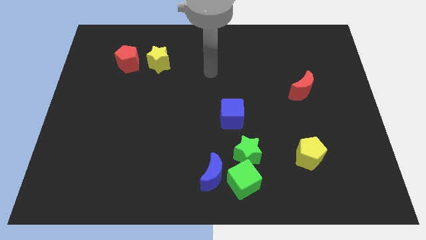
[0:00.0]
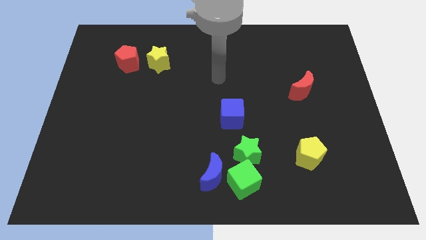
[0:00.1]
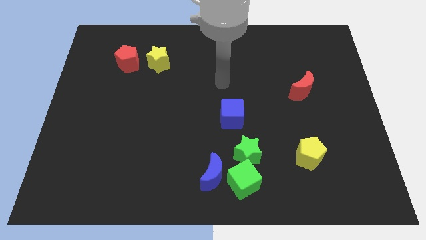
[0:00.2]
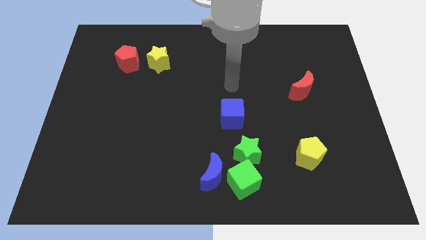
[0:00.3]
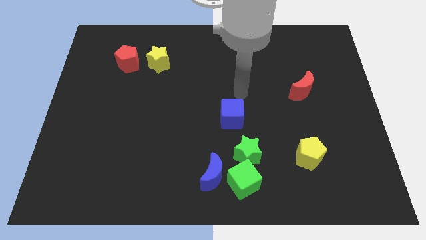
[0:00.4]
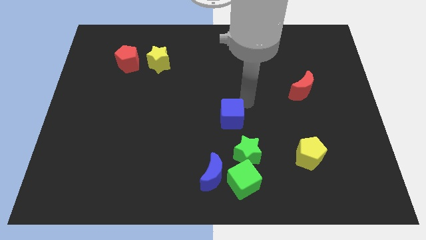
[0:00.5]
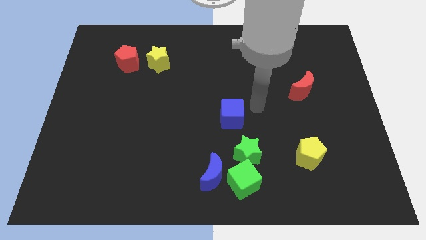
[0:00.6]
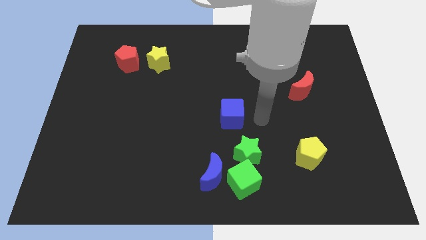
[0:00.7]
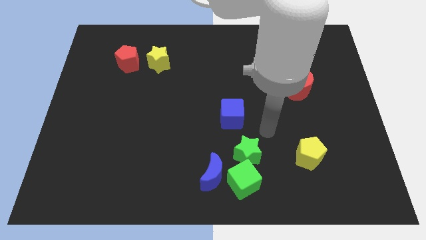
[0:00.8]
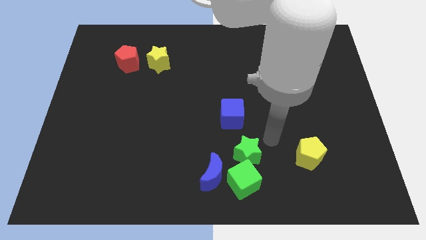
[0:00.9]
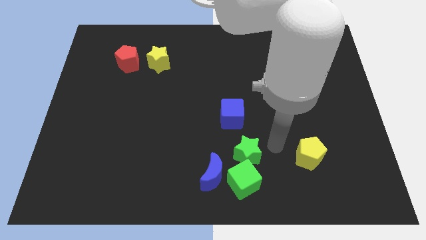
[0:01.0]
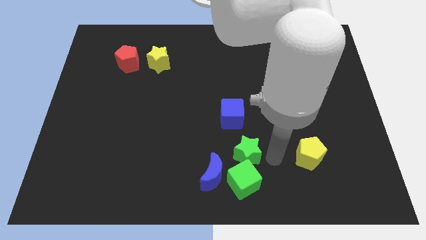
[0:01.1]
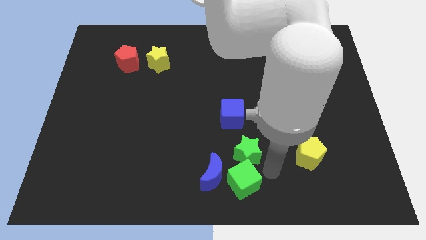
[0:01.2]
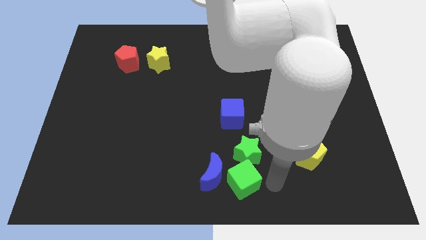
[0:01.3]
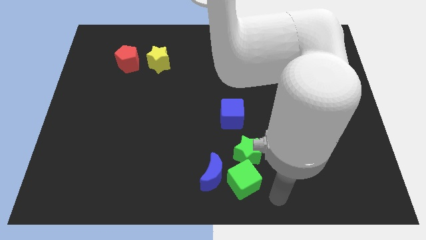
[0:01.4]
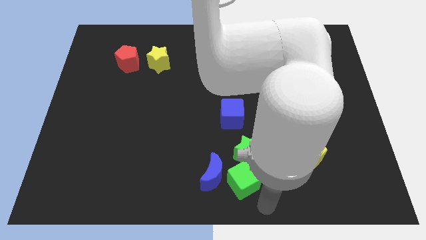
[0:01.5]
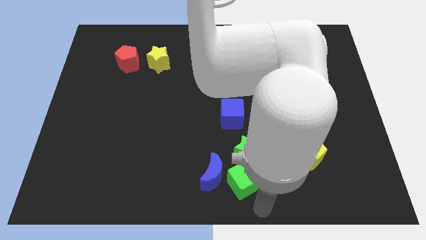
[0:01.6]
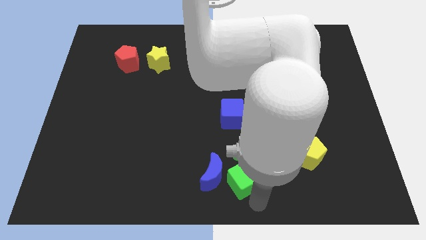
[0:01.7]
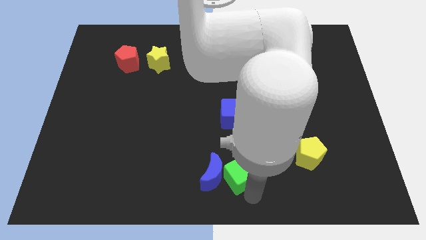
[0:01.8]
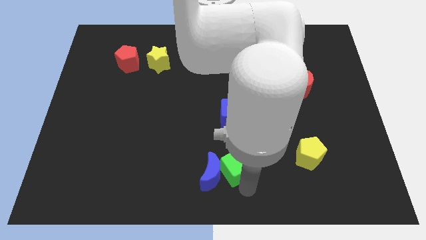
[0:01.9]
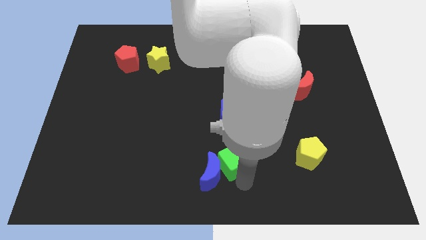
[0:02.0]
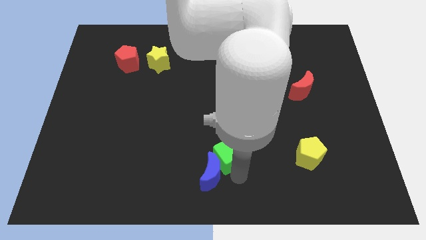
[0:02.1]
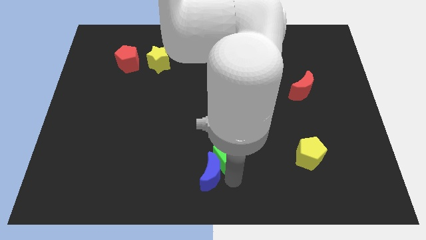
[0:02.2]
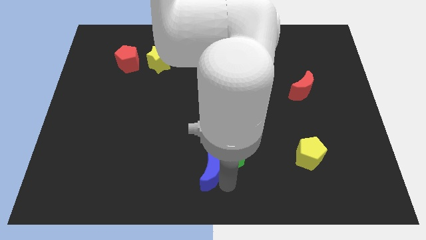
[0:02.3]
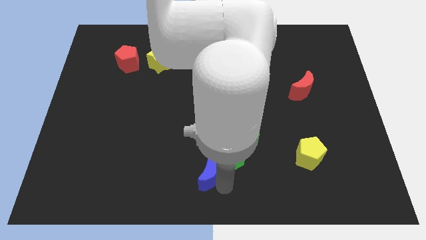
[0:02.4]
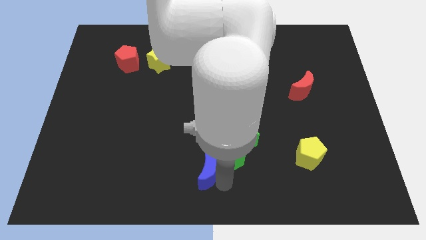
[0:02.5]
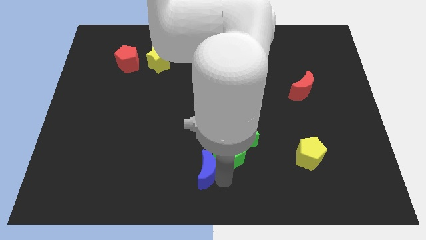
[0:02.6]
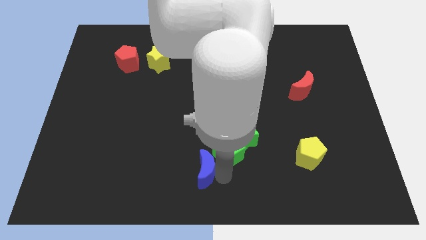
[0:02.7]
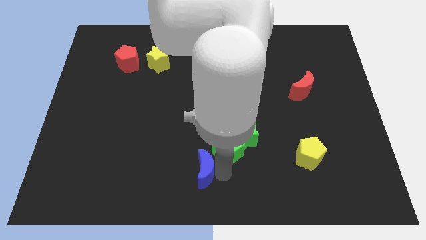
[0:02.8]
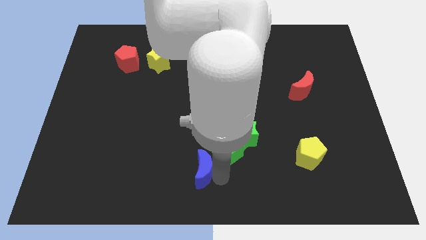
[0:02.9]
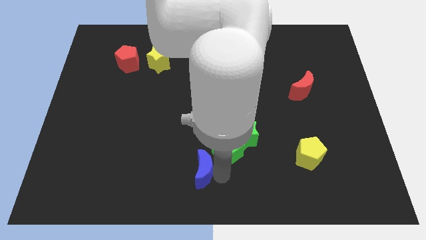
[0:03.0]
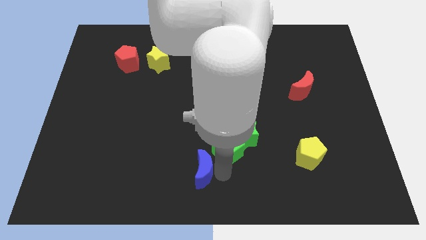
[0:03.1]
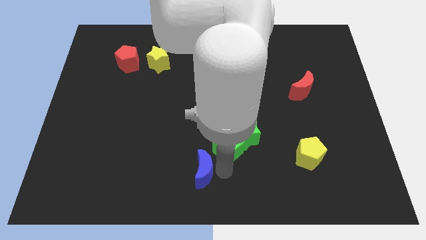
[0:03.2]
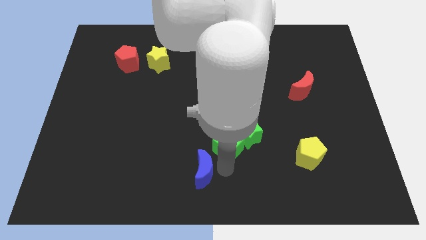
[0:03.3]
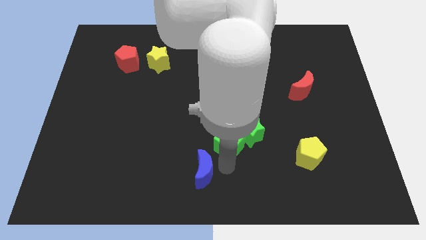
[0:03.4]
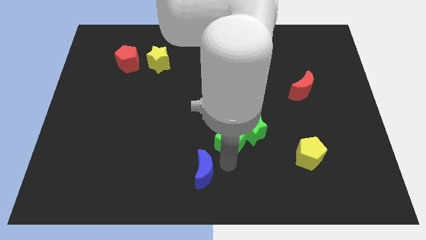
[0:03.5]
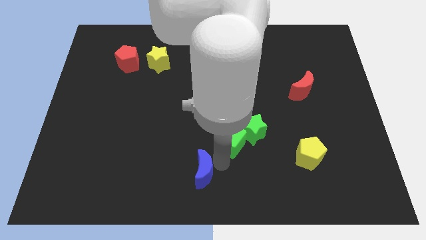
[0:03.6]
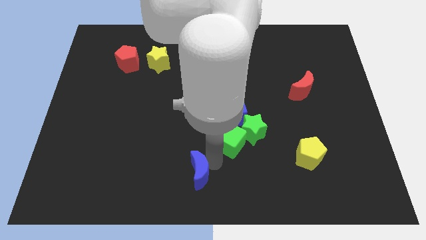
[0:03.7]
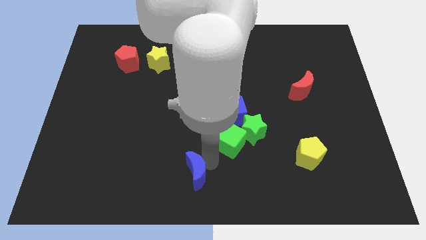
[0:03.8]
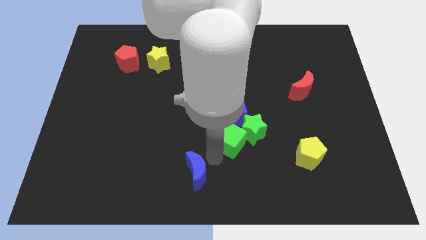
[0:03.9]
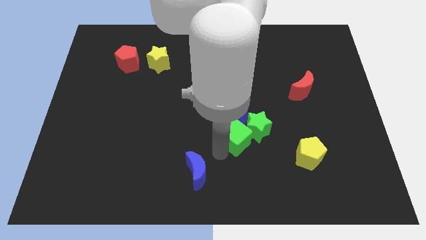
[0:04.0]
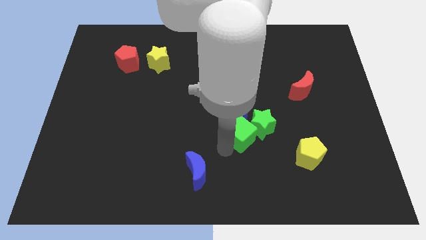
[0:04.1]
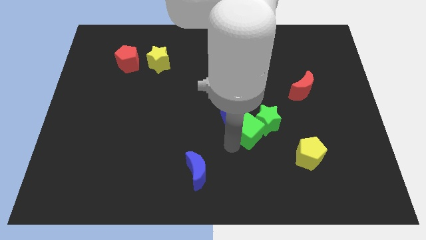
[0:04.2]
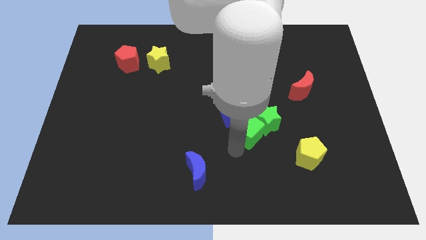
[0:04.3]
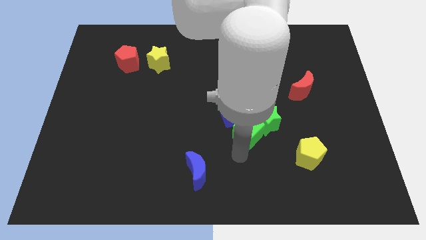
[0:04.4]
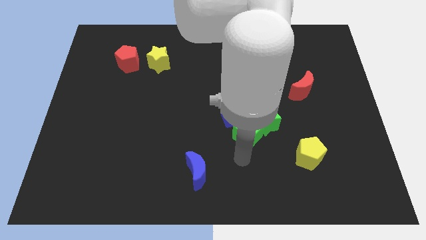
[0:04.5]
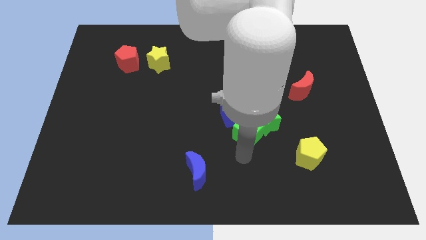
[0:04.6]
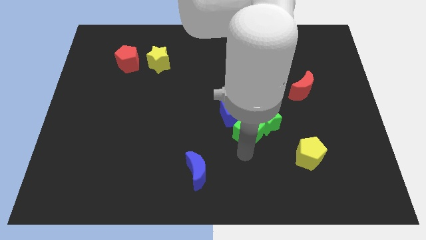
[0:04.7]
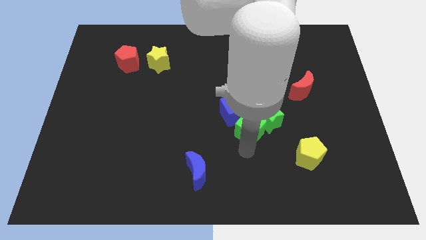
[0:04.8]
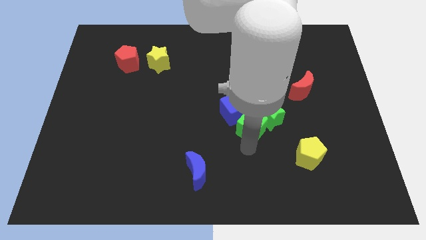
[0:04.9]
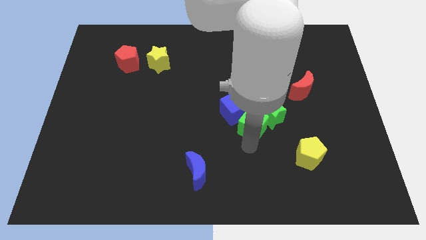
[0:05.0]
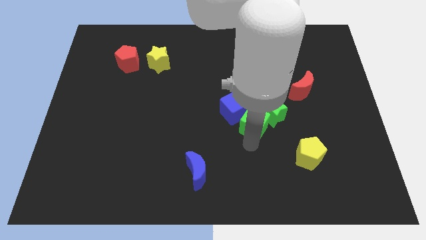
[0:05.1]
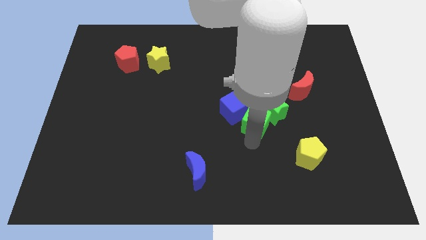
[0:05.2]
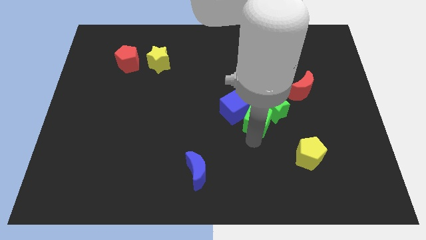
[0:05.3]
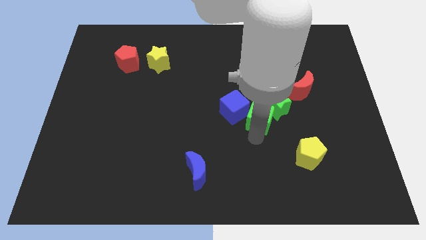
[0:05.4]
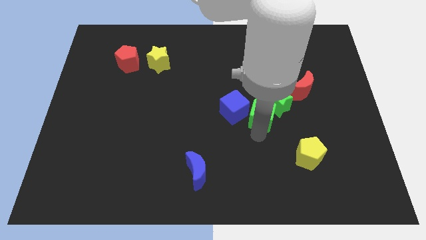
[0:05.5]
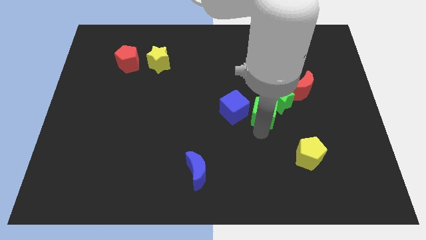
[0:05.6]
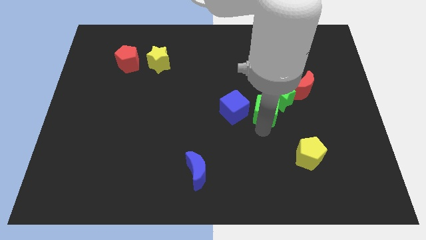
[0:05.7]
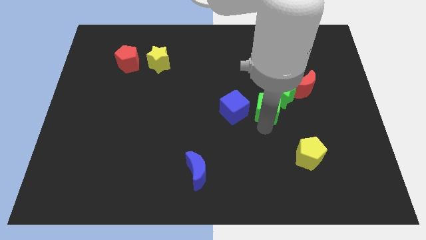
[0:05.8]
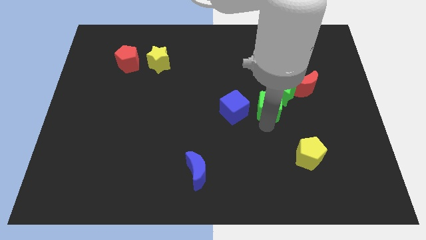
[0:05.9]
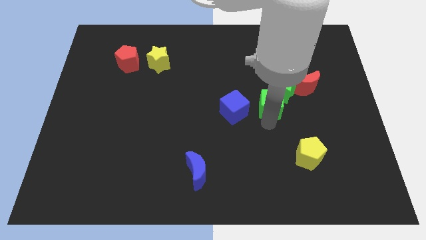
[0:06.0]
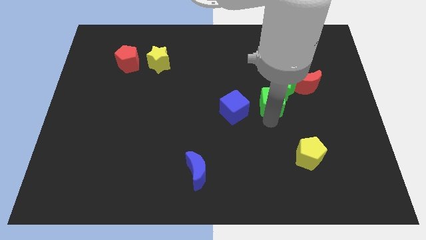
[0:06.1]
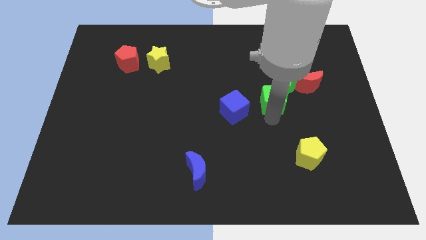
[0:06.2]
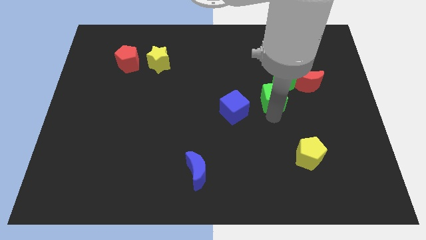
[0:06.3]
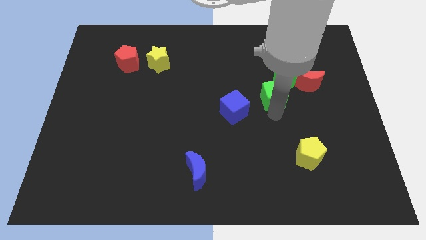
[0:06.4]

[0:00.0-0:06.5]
put the green cube to the left side of the red moon

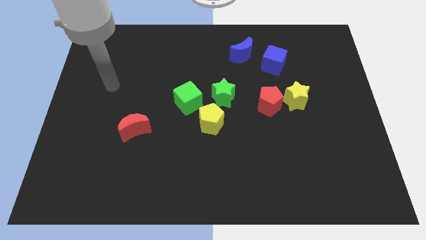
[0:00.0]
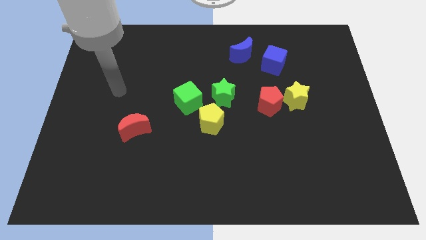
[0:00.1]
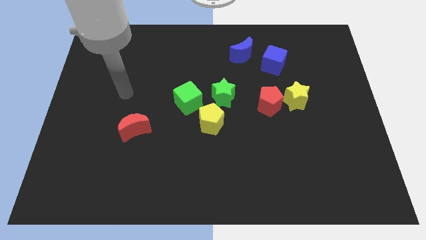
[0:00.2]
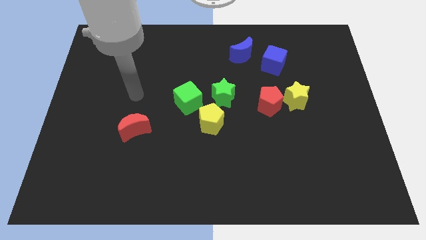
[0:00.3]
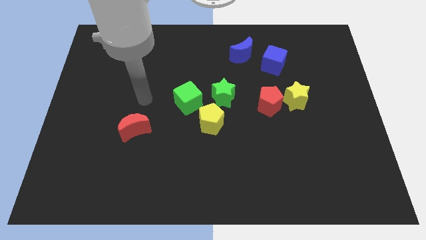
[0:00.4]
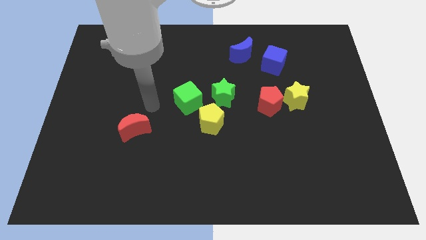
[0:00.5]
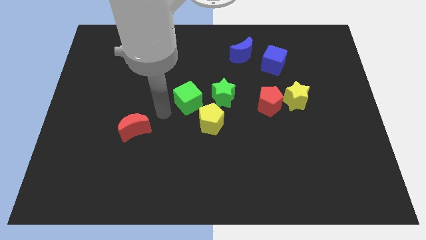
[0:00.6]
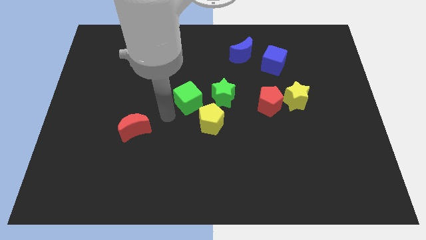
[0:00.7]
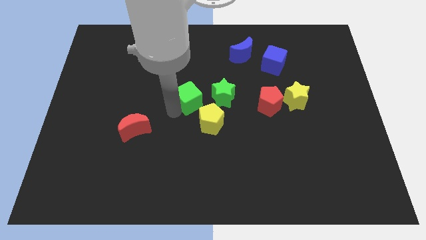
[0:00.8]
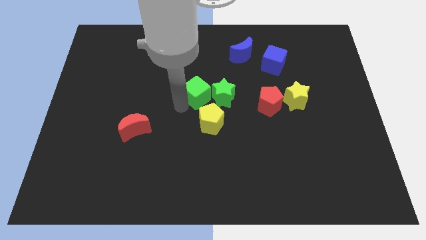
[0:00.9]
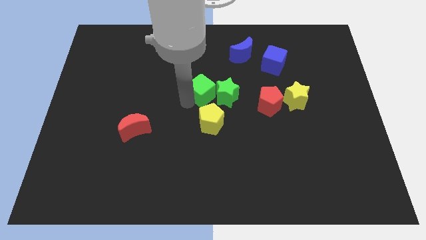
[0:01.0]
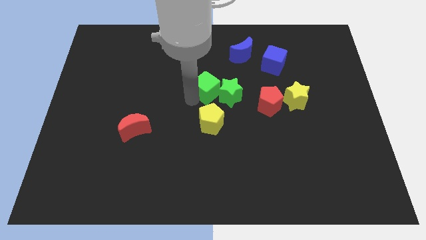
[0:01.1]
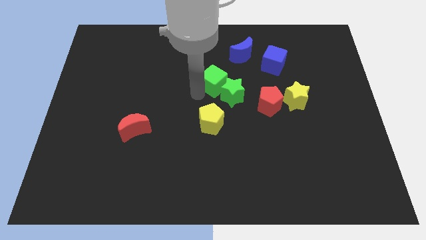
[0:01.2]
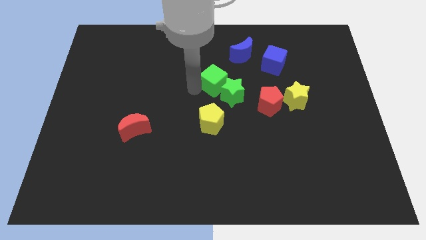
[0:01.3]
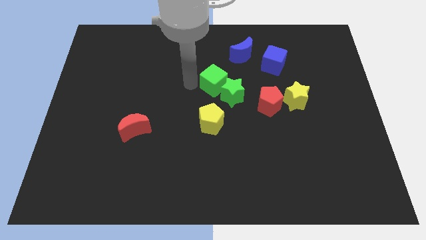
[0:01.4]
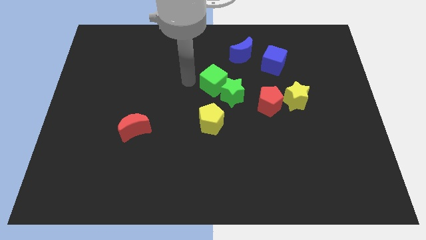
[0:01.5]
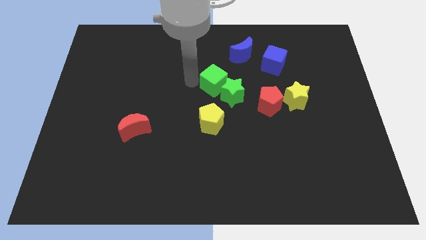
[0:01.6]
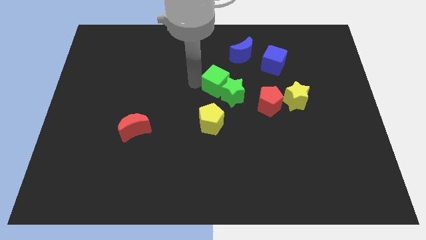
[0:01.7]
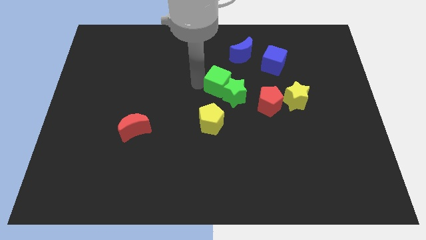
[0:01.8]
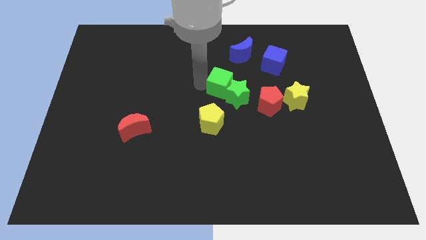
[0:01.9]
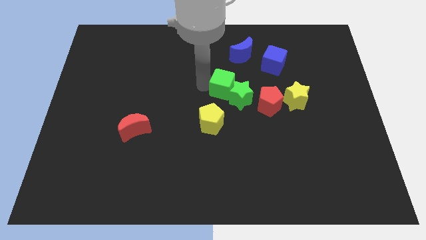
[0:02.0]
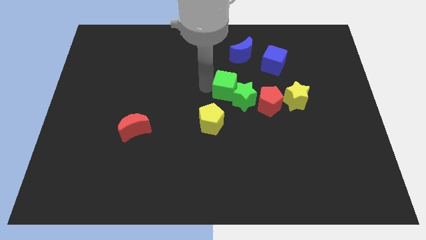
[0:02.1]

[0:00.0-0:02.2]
move the green cube to the top left of the red pentagon
